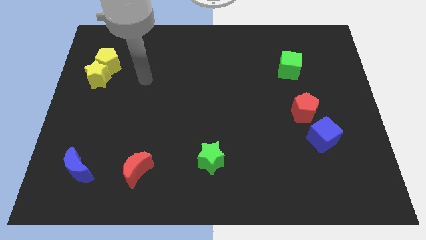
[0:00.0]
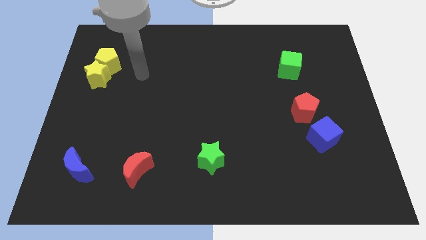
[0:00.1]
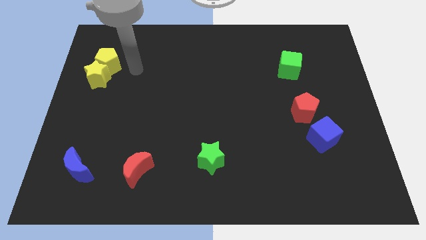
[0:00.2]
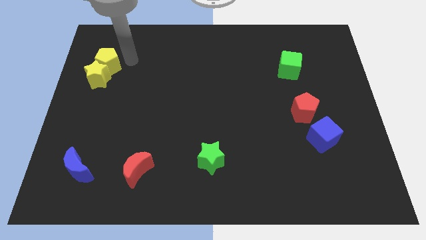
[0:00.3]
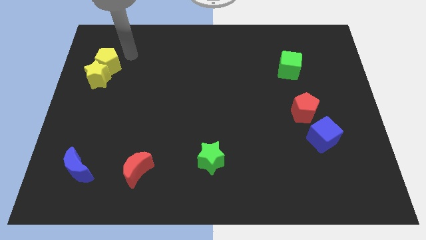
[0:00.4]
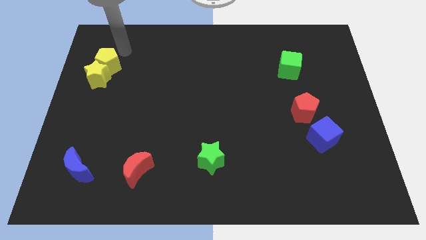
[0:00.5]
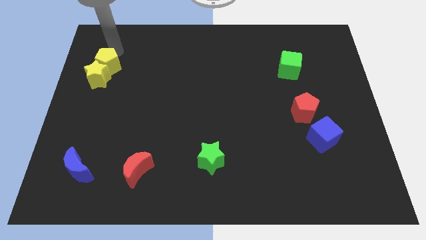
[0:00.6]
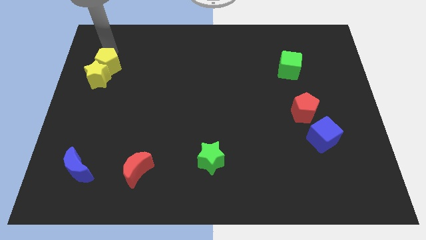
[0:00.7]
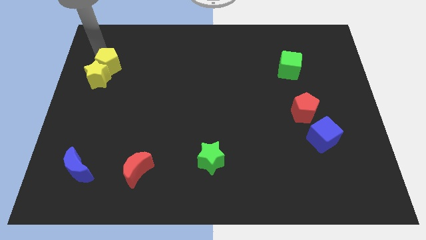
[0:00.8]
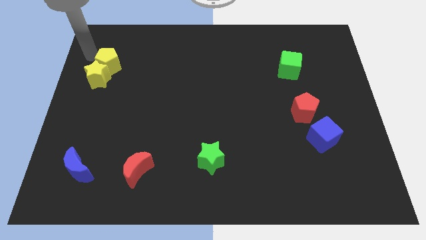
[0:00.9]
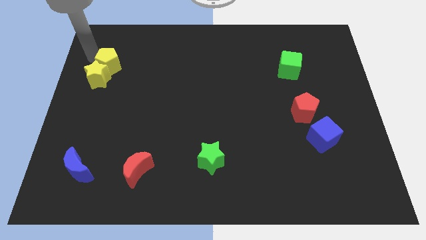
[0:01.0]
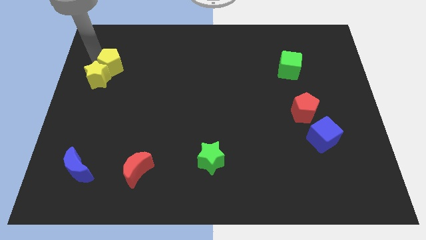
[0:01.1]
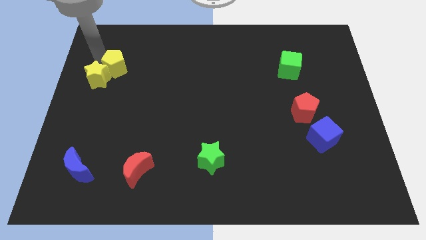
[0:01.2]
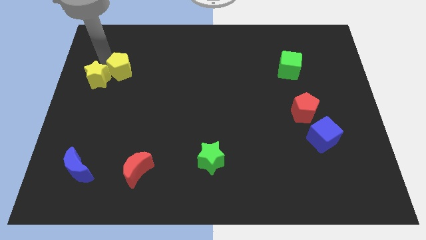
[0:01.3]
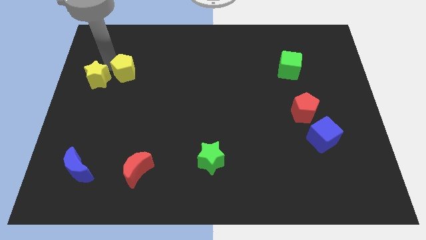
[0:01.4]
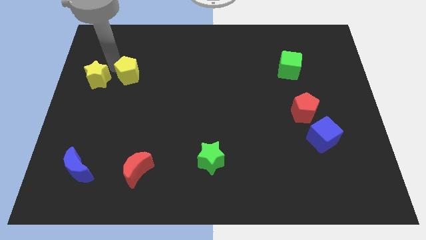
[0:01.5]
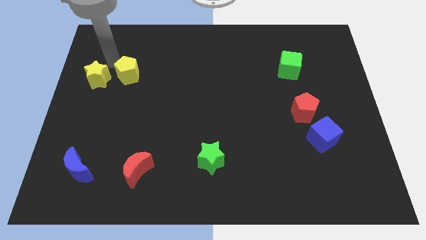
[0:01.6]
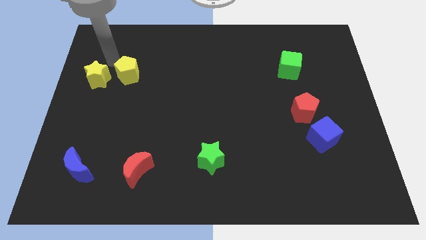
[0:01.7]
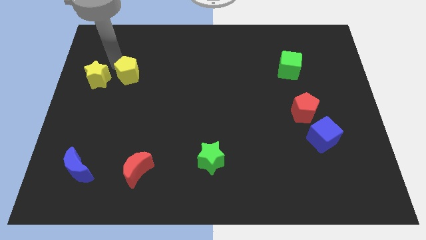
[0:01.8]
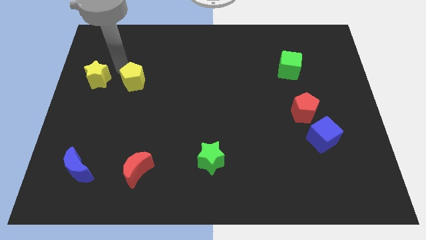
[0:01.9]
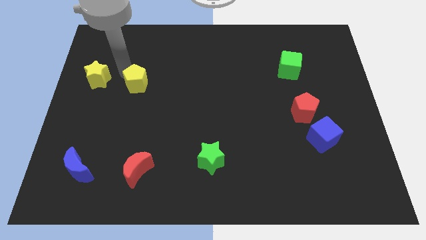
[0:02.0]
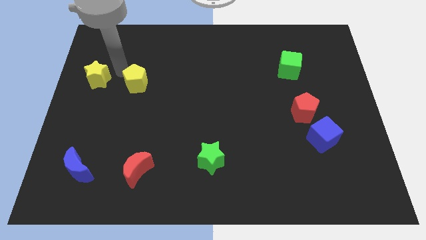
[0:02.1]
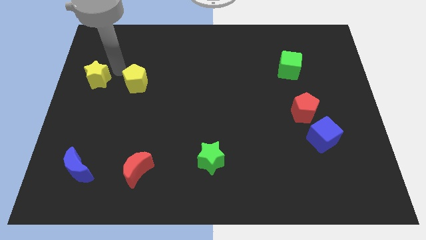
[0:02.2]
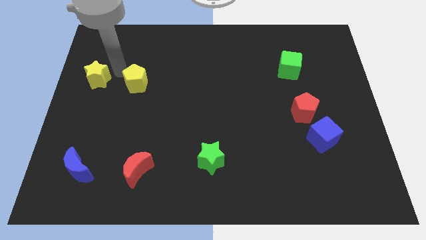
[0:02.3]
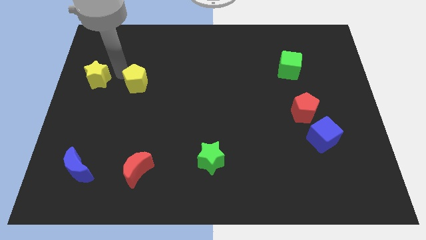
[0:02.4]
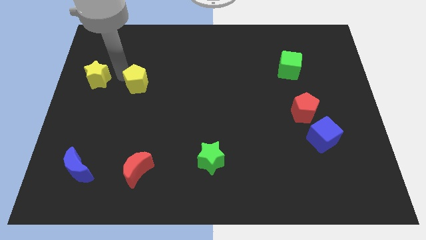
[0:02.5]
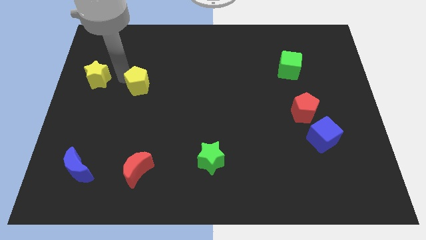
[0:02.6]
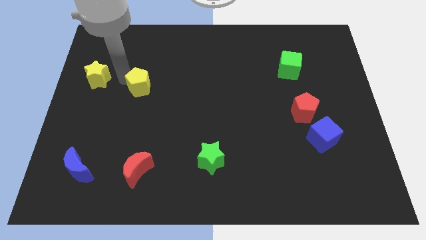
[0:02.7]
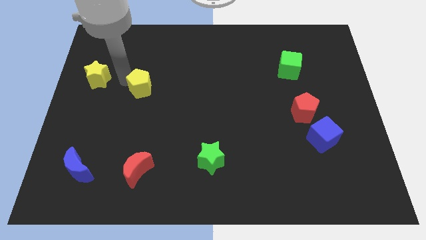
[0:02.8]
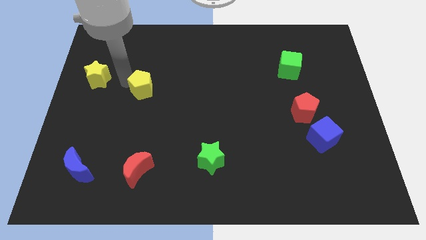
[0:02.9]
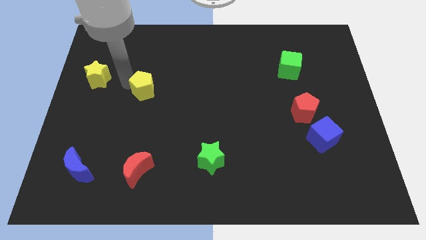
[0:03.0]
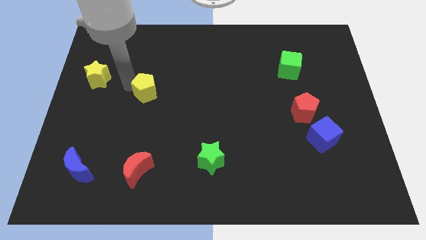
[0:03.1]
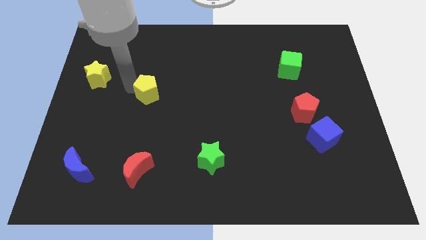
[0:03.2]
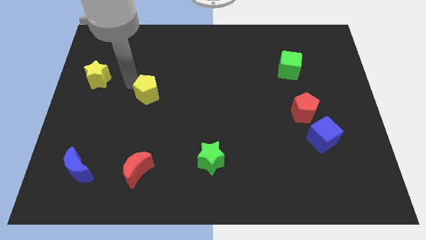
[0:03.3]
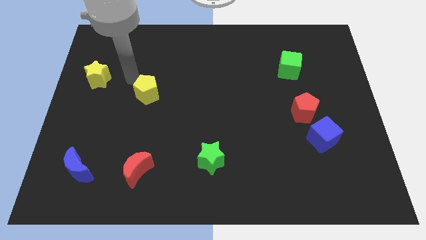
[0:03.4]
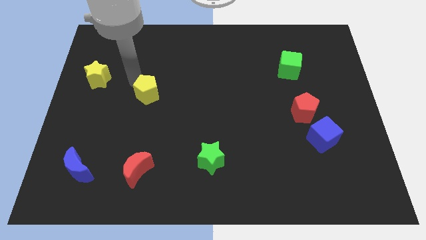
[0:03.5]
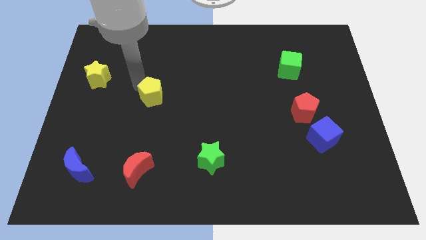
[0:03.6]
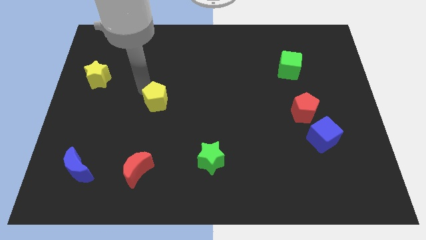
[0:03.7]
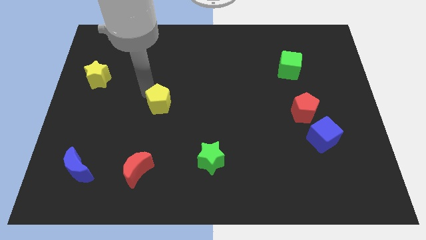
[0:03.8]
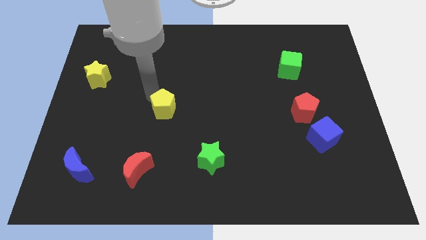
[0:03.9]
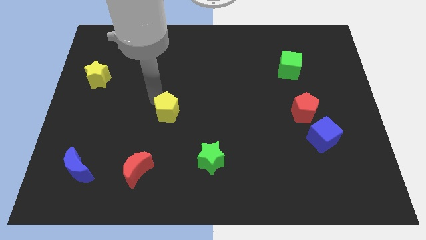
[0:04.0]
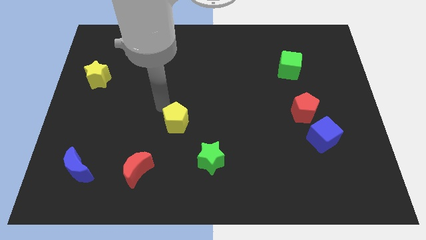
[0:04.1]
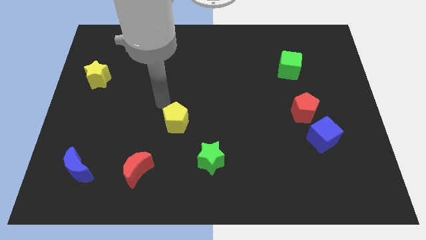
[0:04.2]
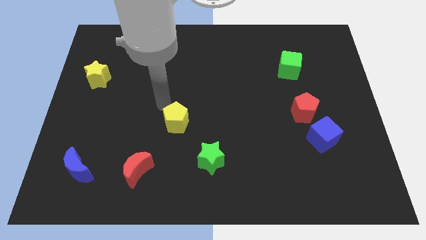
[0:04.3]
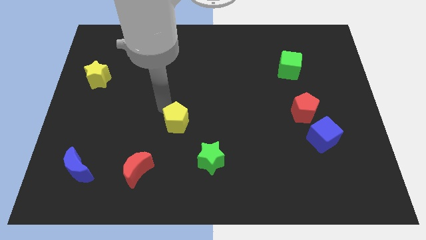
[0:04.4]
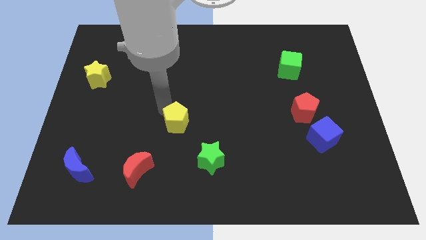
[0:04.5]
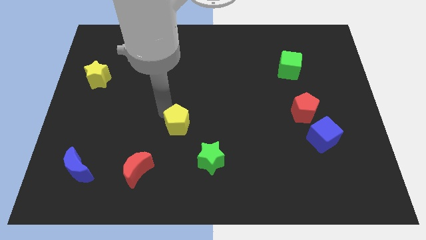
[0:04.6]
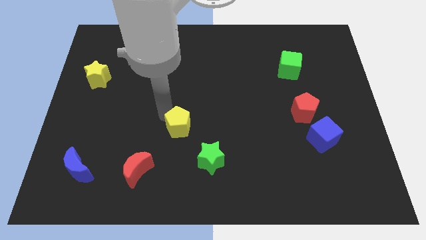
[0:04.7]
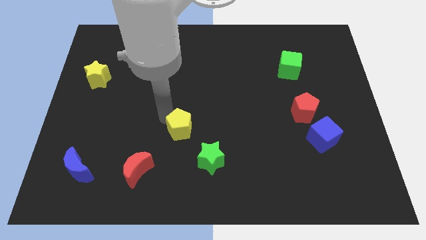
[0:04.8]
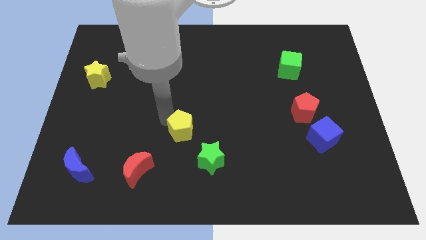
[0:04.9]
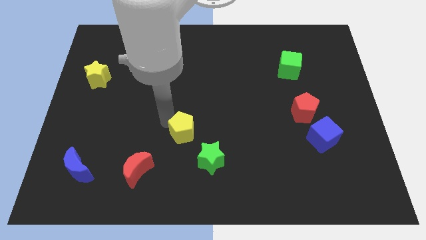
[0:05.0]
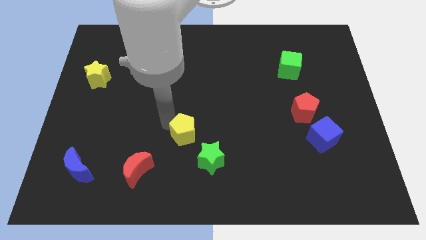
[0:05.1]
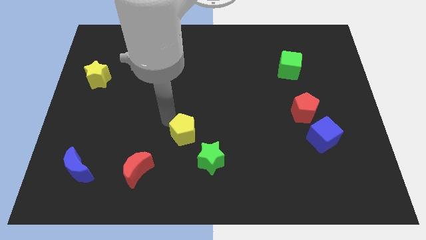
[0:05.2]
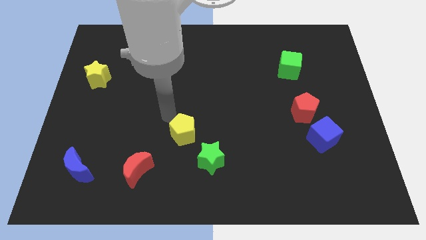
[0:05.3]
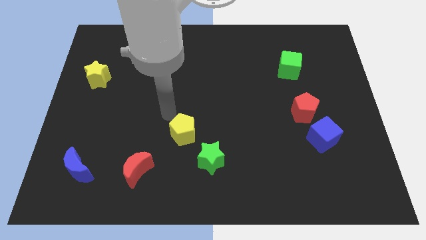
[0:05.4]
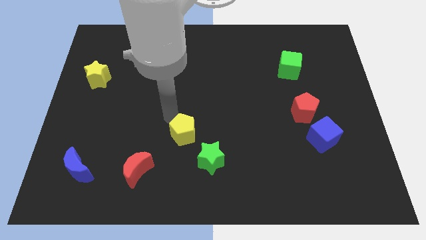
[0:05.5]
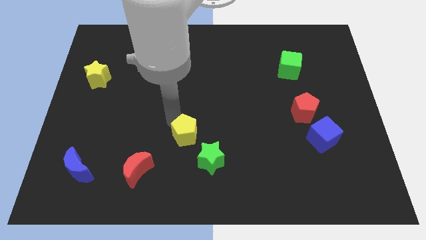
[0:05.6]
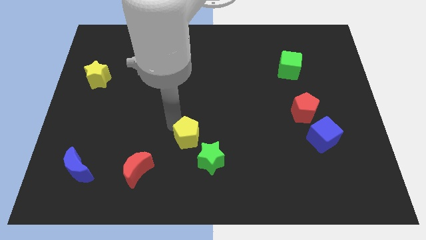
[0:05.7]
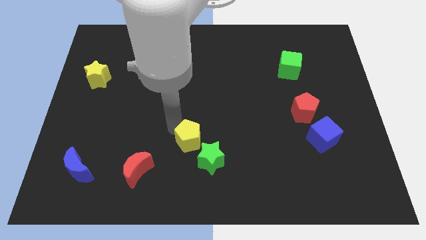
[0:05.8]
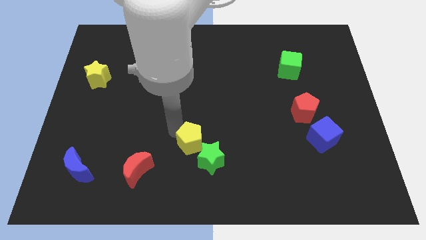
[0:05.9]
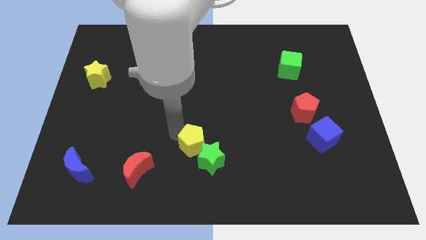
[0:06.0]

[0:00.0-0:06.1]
push the yellow pentagon close to the green star

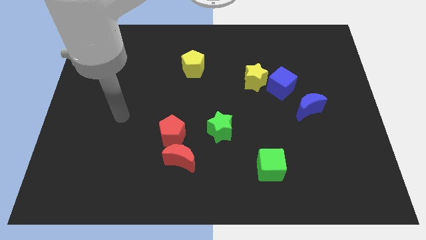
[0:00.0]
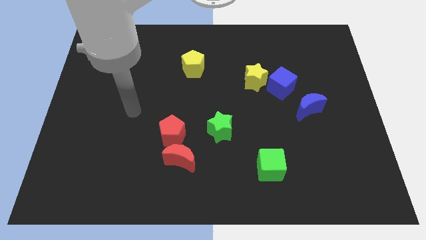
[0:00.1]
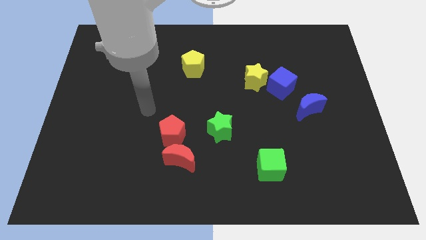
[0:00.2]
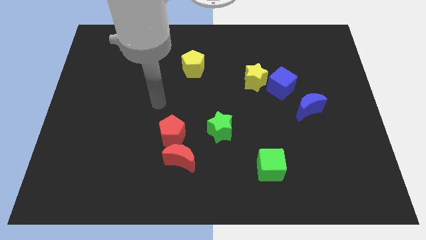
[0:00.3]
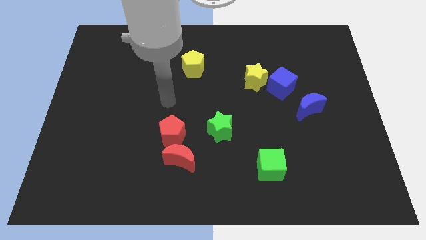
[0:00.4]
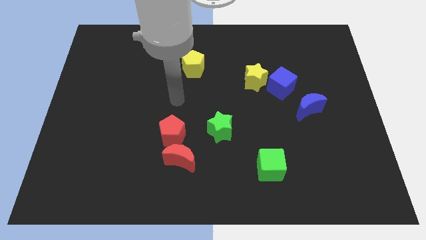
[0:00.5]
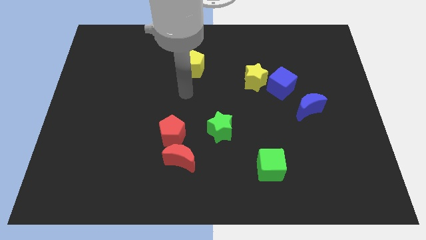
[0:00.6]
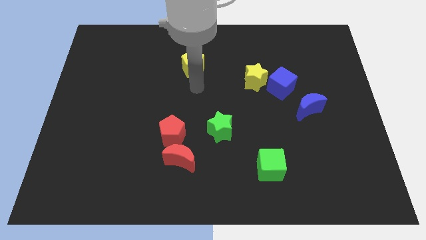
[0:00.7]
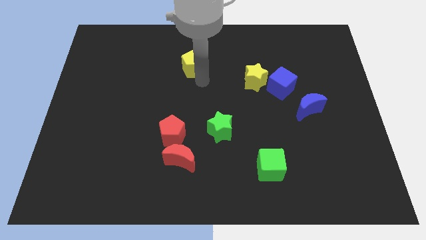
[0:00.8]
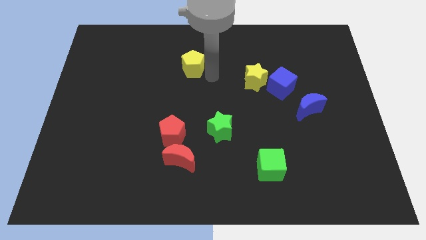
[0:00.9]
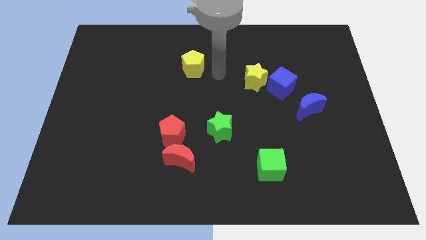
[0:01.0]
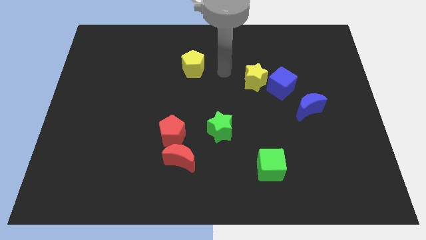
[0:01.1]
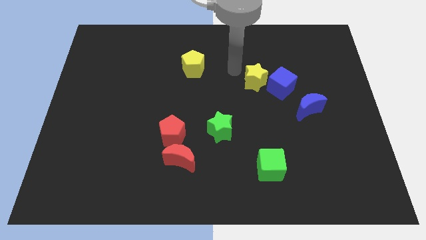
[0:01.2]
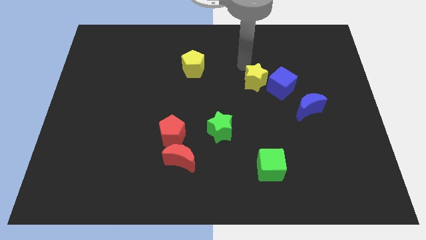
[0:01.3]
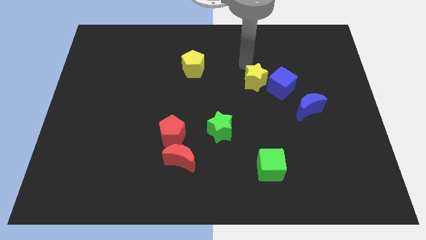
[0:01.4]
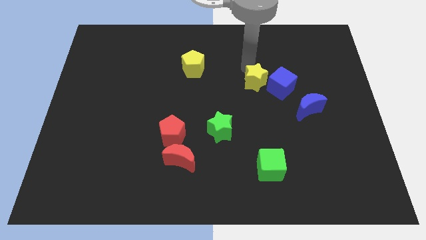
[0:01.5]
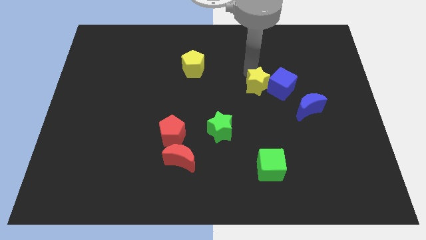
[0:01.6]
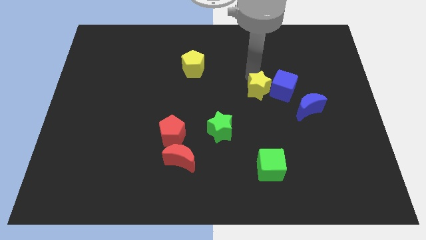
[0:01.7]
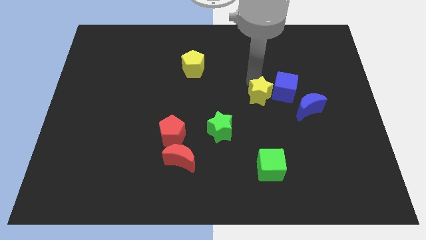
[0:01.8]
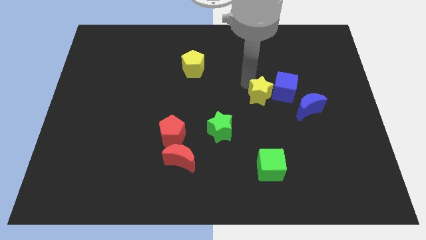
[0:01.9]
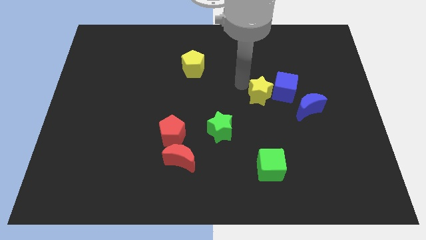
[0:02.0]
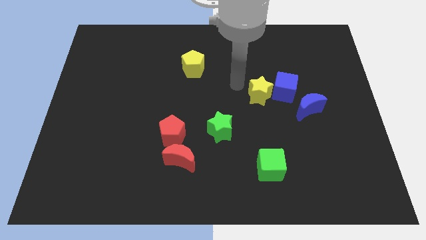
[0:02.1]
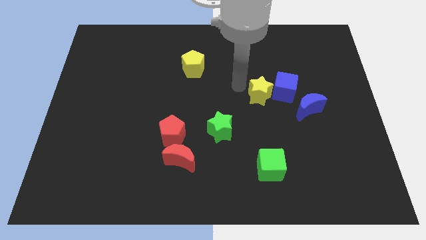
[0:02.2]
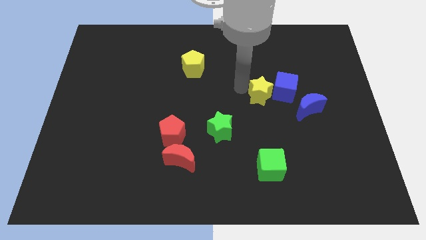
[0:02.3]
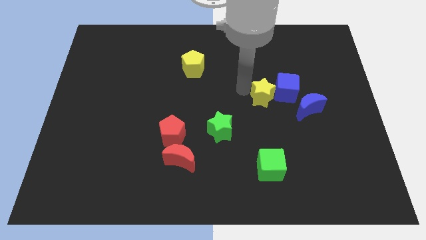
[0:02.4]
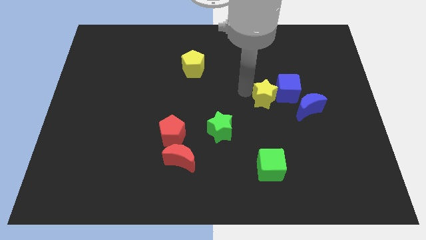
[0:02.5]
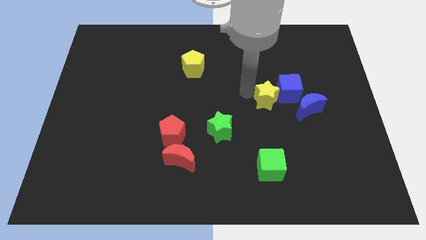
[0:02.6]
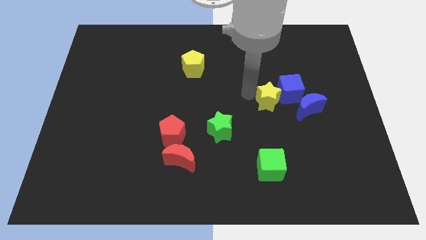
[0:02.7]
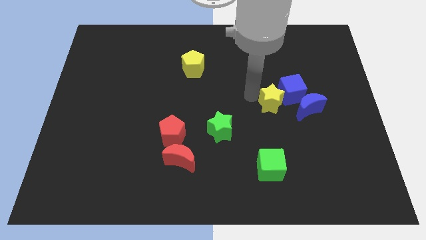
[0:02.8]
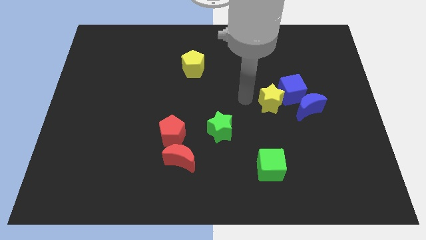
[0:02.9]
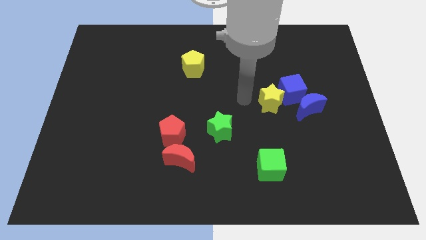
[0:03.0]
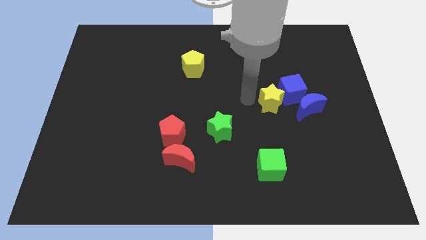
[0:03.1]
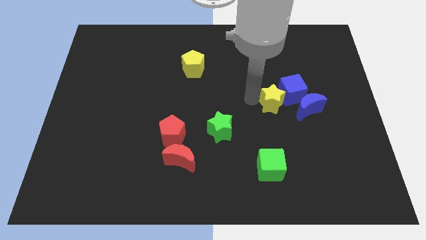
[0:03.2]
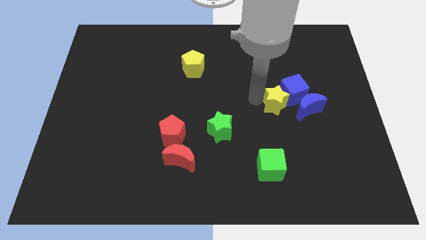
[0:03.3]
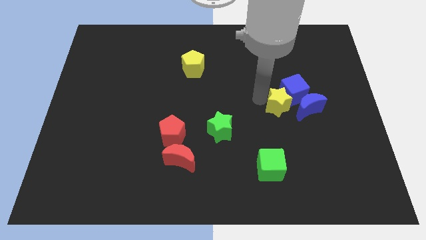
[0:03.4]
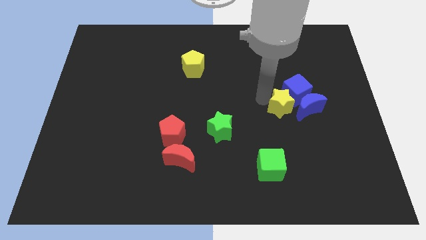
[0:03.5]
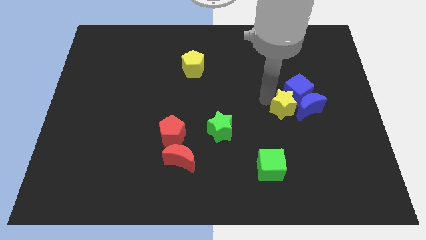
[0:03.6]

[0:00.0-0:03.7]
move the yellow star to the blue moon
